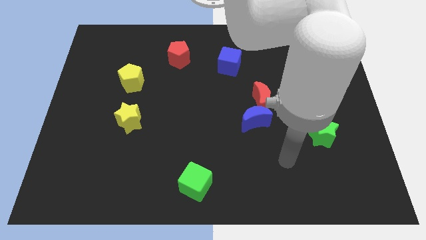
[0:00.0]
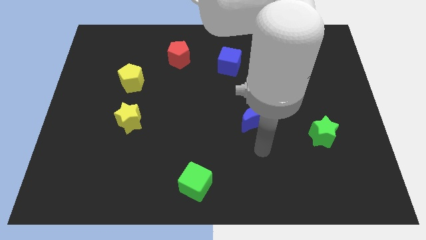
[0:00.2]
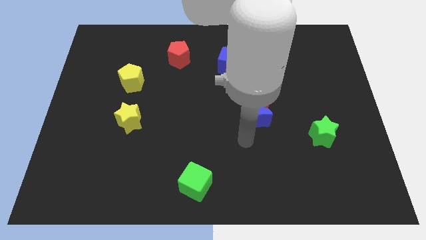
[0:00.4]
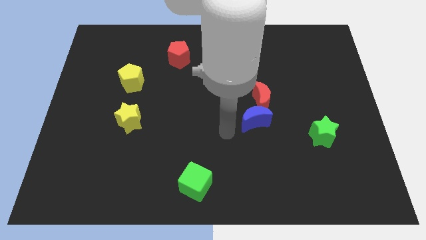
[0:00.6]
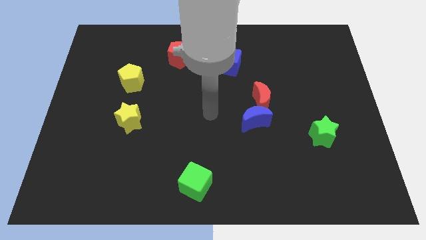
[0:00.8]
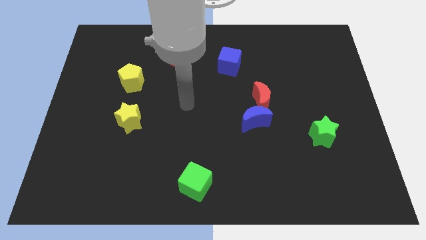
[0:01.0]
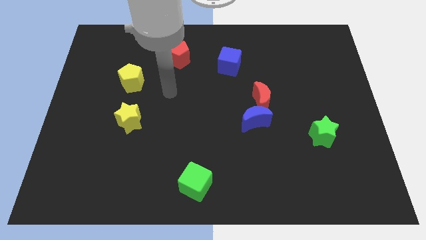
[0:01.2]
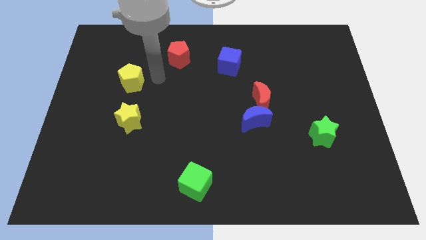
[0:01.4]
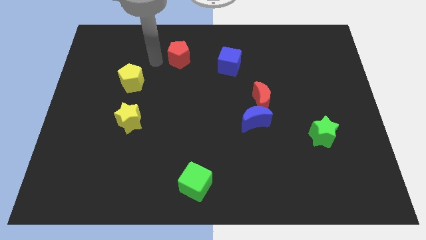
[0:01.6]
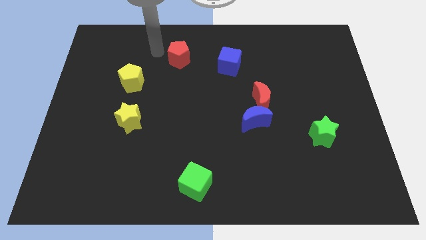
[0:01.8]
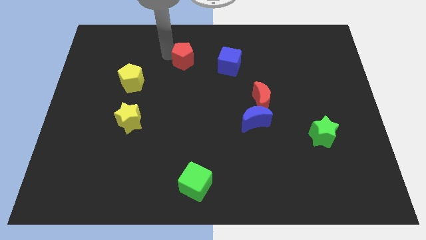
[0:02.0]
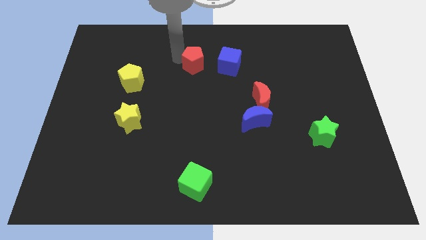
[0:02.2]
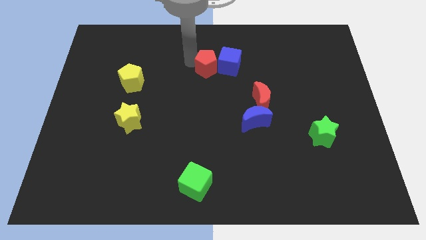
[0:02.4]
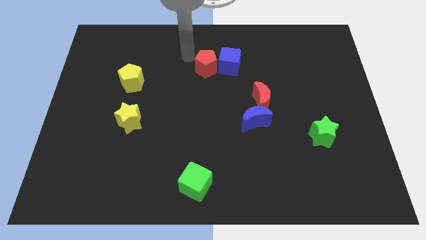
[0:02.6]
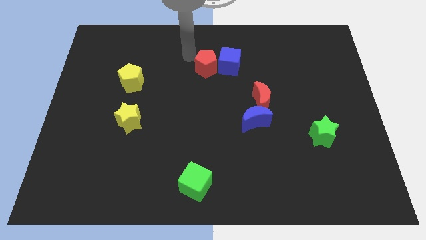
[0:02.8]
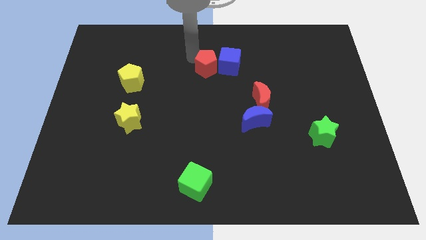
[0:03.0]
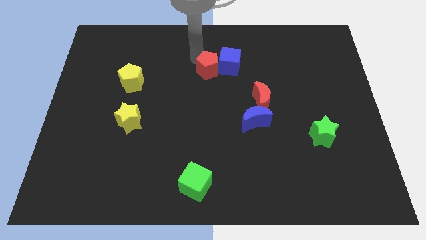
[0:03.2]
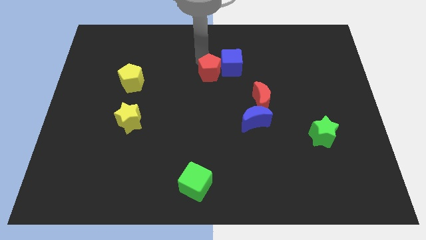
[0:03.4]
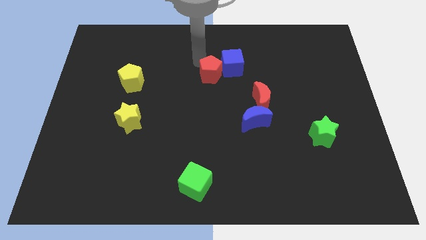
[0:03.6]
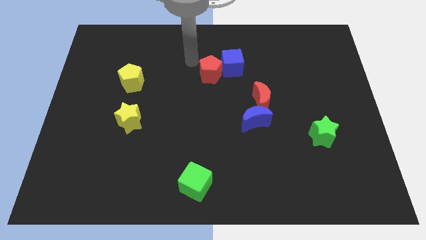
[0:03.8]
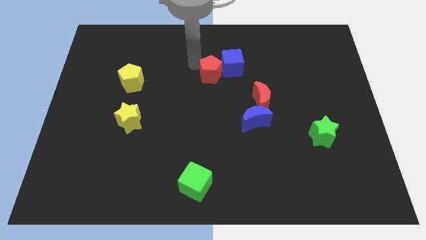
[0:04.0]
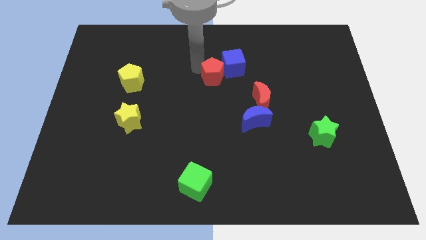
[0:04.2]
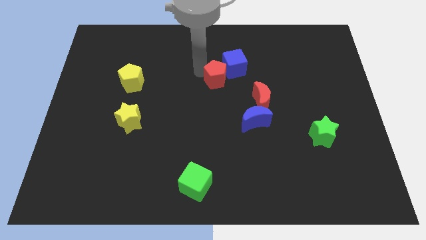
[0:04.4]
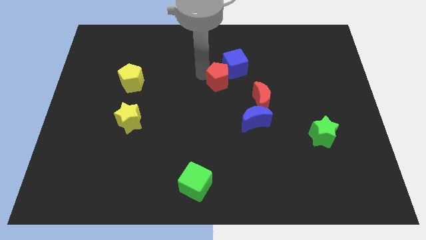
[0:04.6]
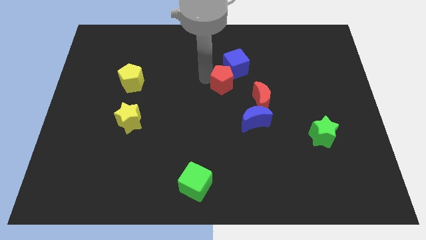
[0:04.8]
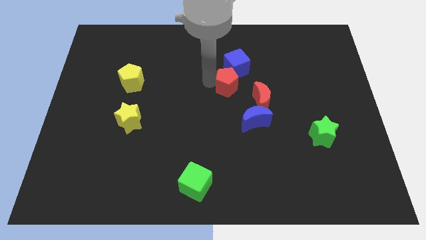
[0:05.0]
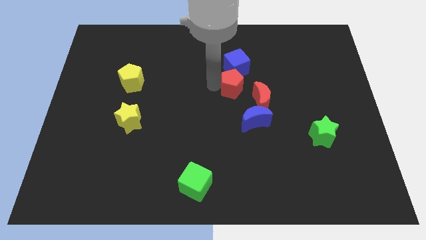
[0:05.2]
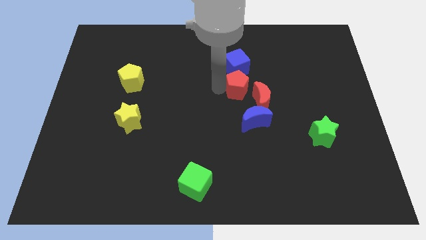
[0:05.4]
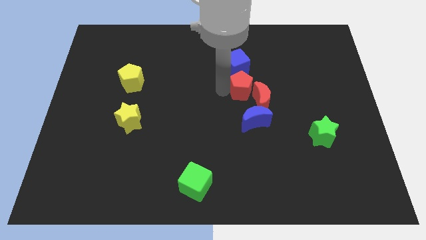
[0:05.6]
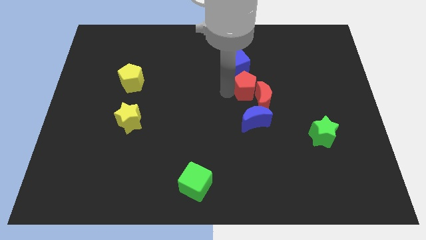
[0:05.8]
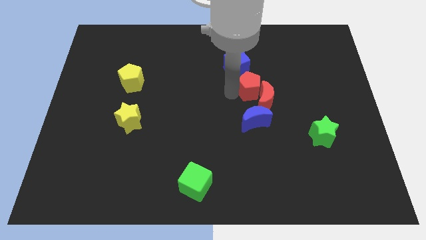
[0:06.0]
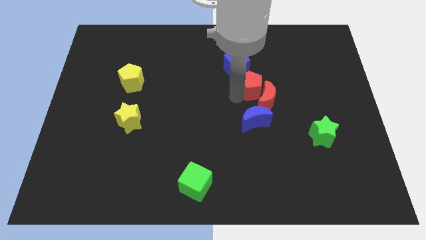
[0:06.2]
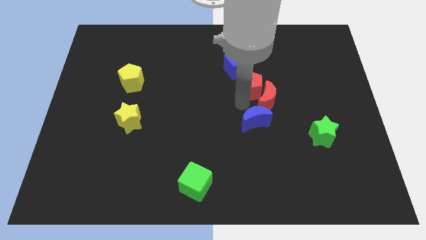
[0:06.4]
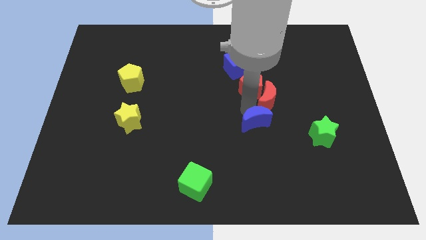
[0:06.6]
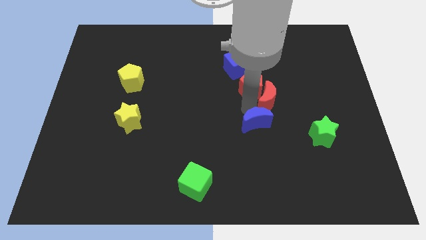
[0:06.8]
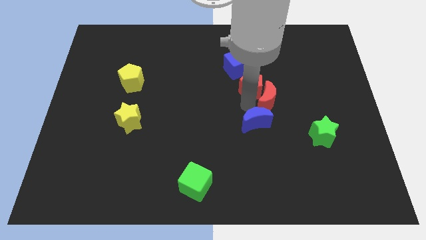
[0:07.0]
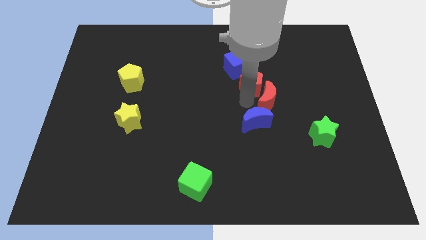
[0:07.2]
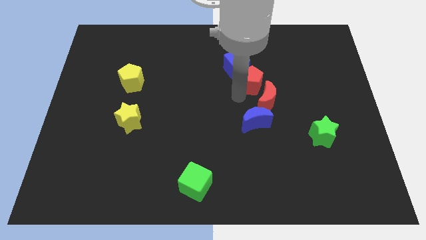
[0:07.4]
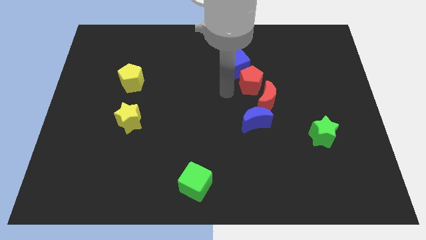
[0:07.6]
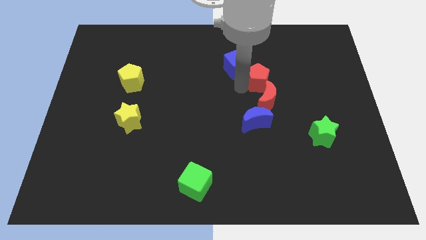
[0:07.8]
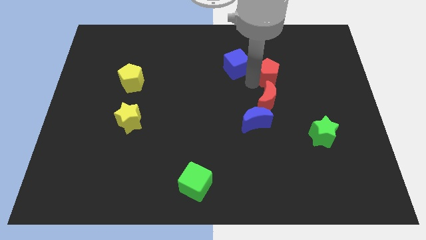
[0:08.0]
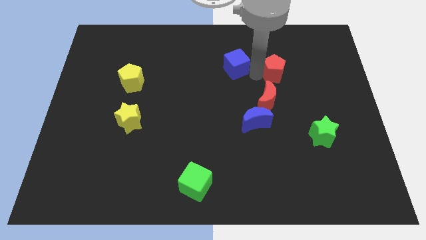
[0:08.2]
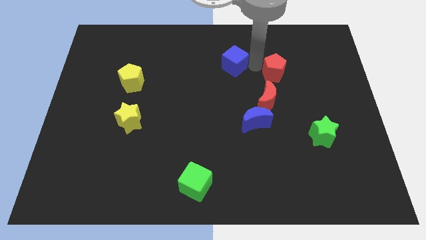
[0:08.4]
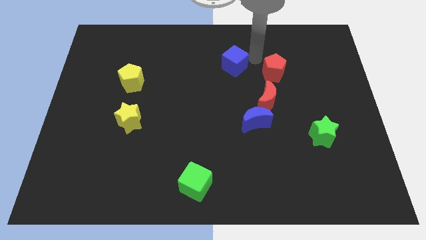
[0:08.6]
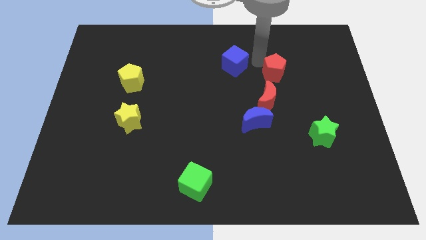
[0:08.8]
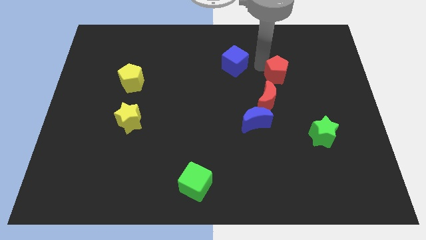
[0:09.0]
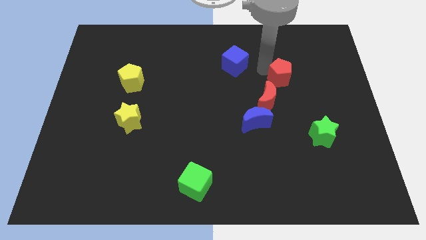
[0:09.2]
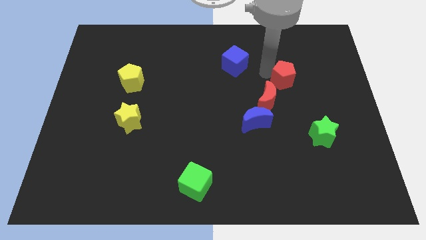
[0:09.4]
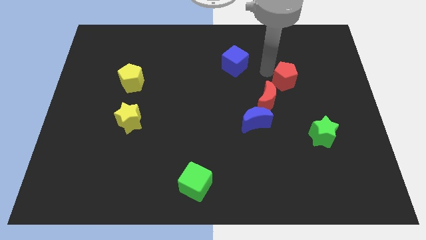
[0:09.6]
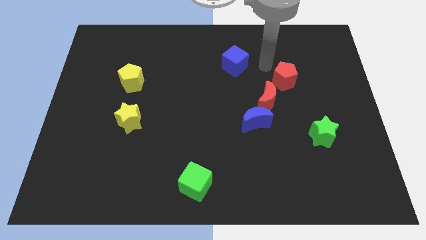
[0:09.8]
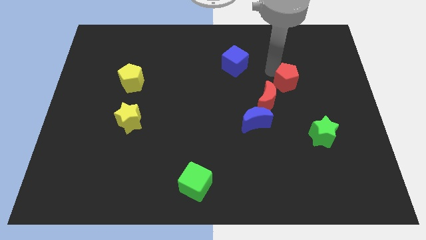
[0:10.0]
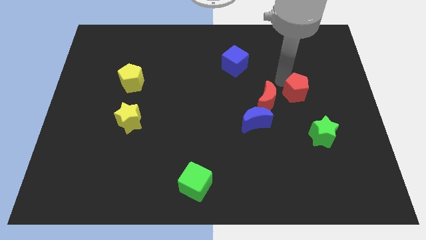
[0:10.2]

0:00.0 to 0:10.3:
put the red pentagon to the top of the green star

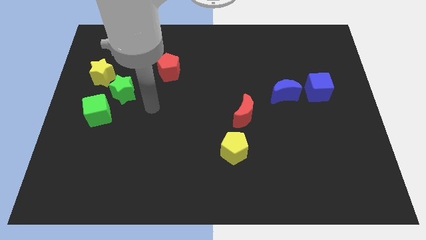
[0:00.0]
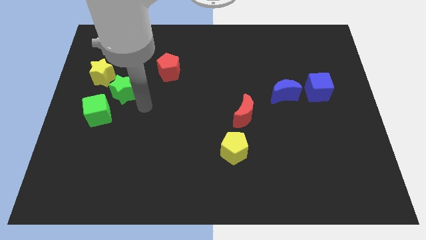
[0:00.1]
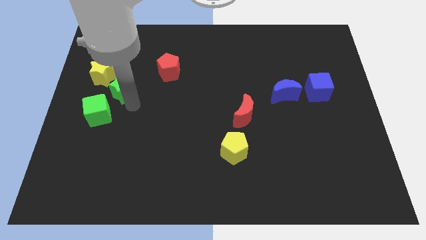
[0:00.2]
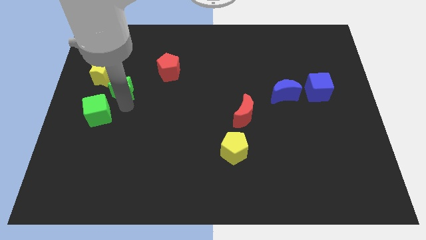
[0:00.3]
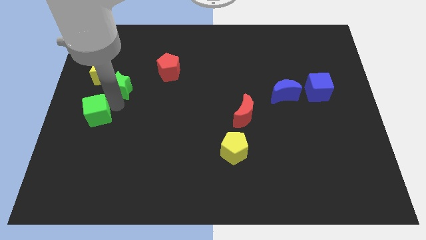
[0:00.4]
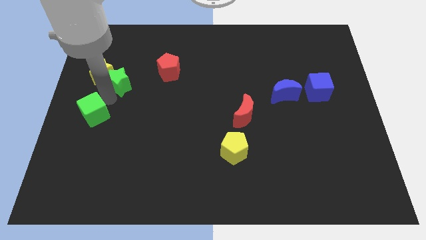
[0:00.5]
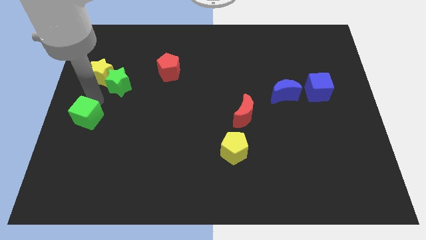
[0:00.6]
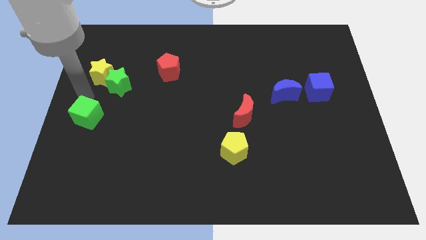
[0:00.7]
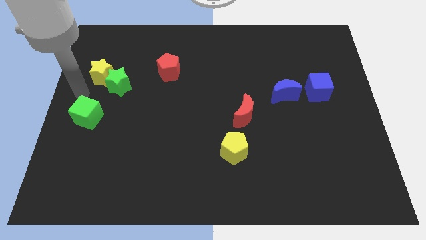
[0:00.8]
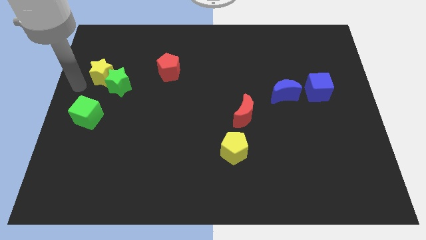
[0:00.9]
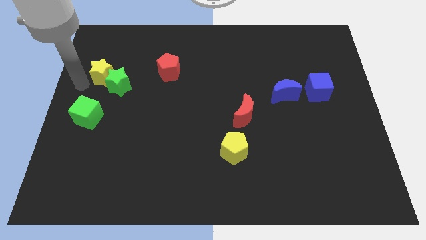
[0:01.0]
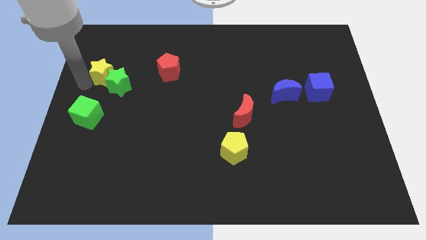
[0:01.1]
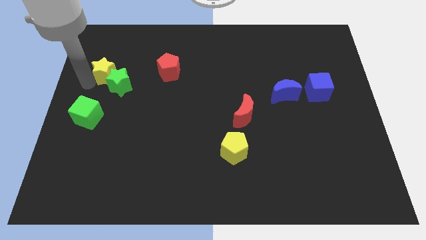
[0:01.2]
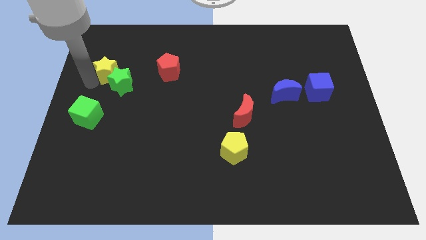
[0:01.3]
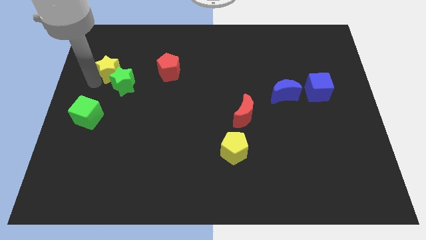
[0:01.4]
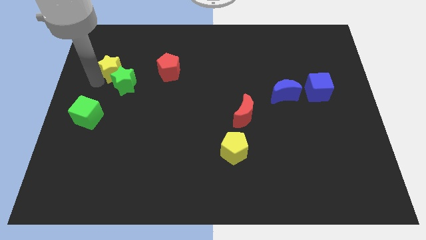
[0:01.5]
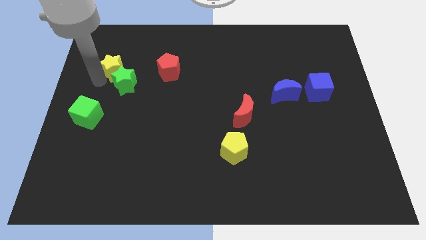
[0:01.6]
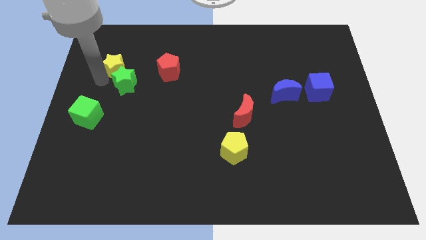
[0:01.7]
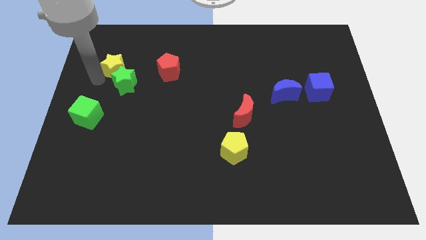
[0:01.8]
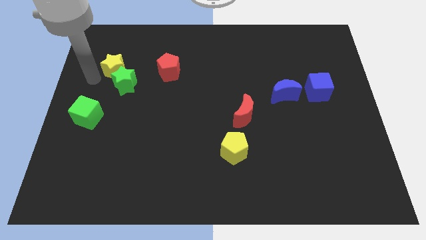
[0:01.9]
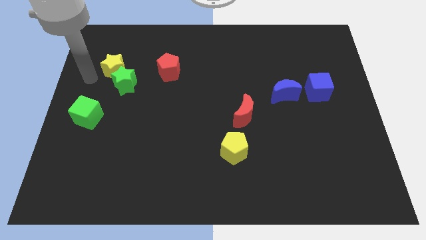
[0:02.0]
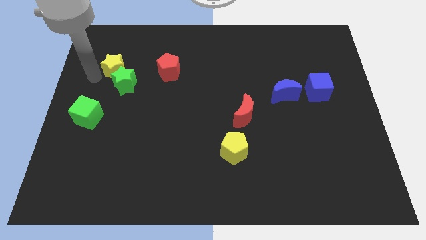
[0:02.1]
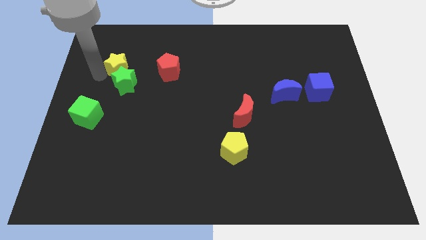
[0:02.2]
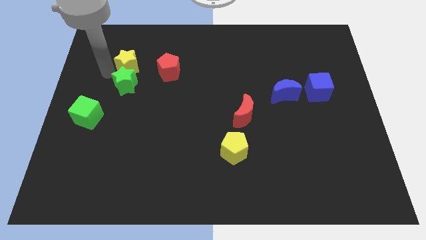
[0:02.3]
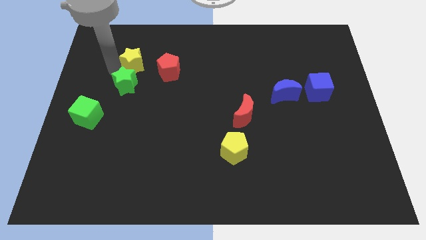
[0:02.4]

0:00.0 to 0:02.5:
move the yellow star to the top left side of the red pentagon
